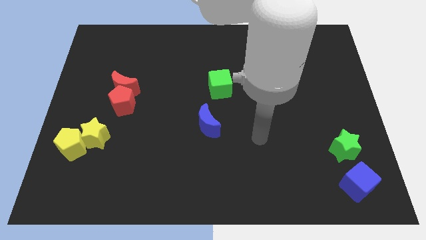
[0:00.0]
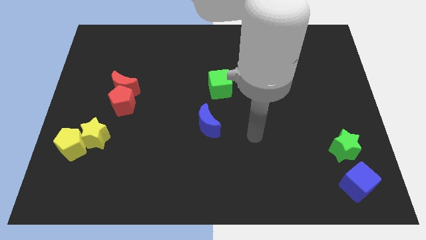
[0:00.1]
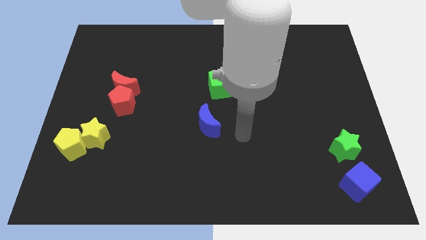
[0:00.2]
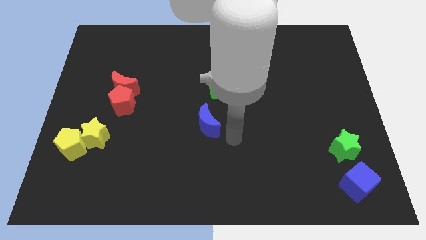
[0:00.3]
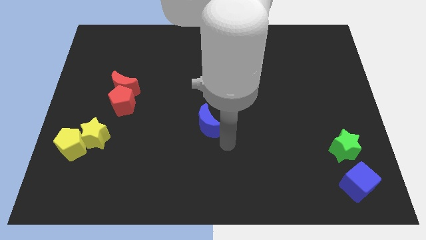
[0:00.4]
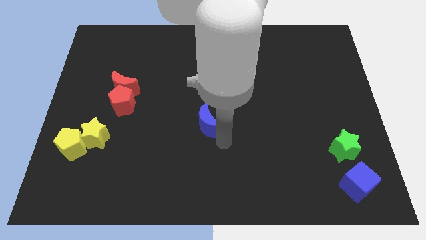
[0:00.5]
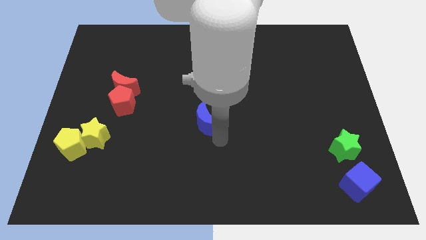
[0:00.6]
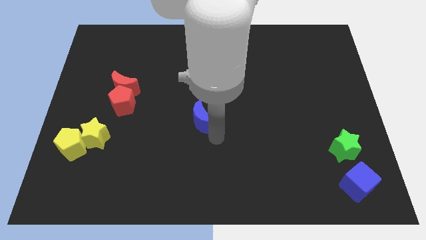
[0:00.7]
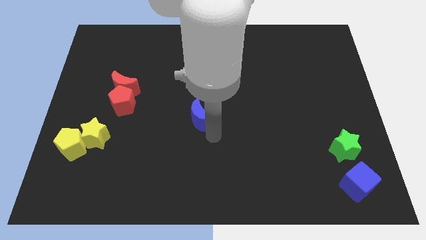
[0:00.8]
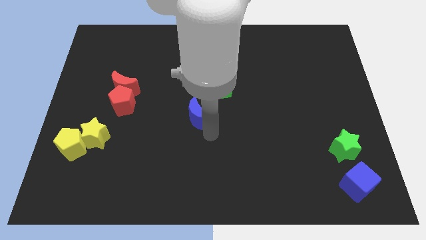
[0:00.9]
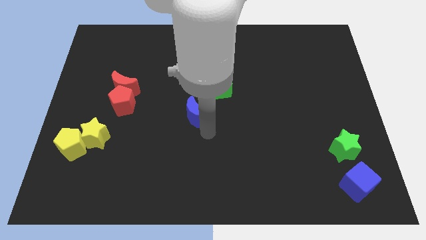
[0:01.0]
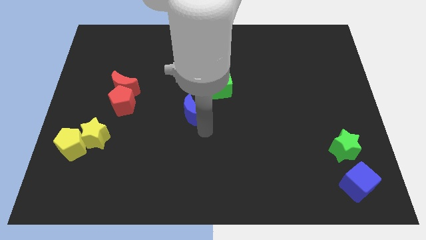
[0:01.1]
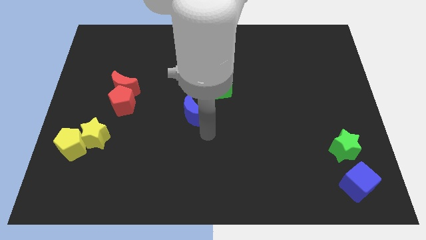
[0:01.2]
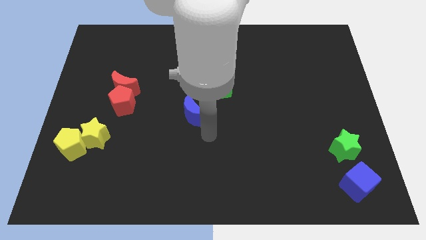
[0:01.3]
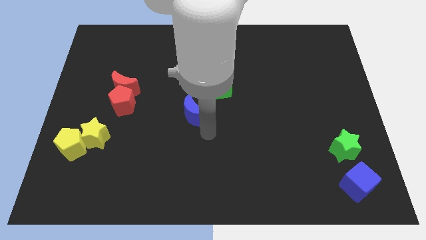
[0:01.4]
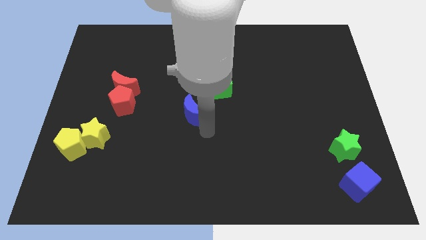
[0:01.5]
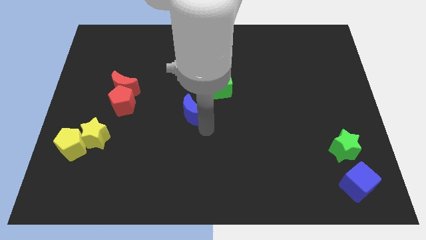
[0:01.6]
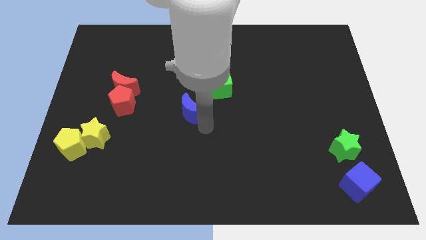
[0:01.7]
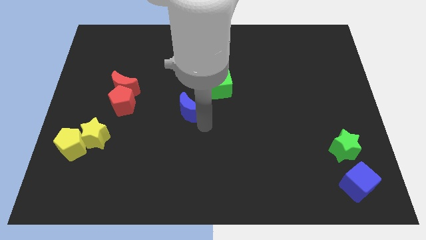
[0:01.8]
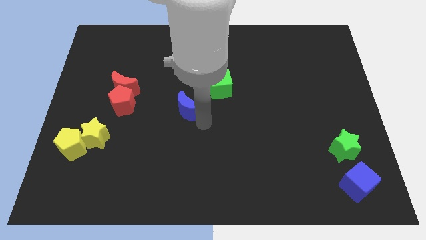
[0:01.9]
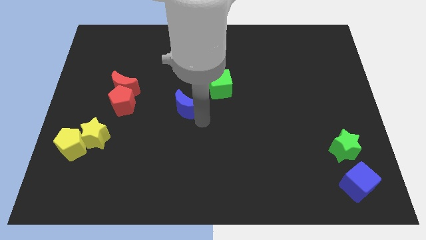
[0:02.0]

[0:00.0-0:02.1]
slightly move the blue moon diagonally upwards and to the left

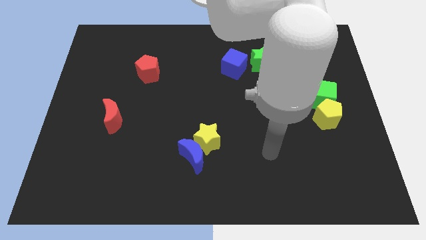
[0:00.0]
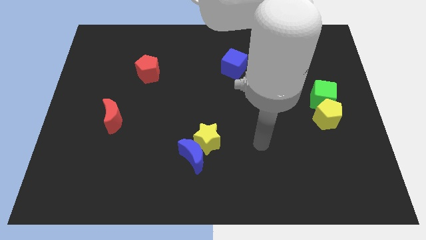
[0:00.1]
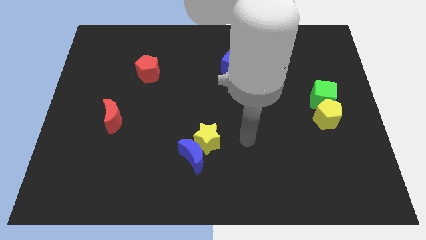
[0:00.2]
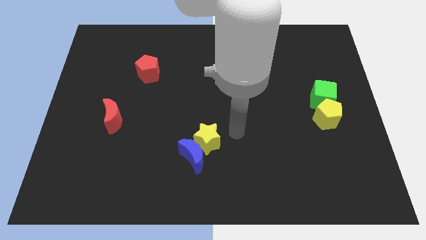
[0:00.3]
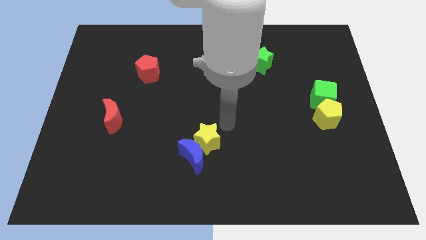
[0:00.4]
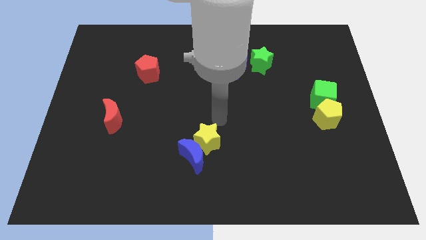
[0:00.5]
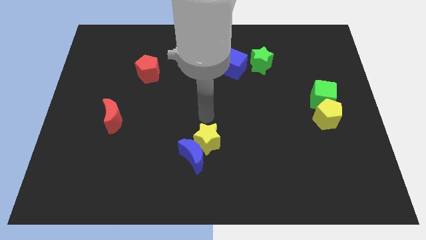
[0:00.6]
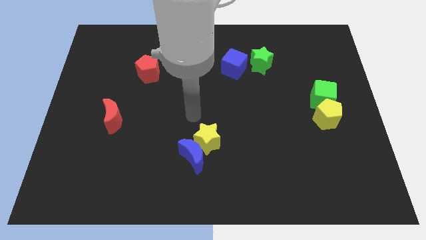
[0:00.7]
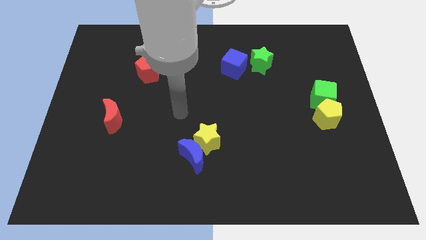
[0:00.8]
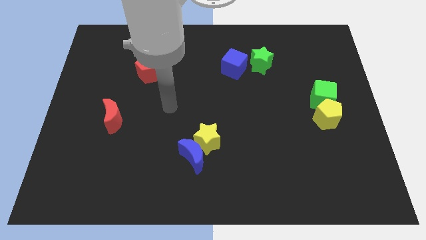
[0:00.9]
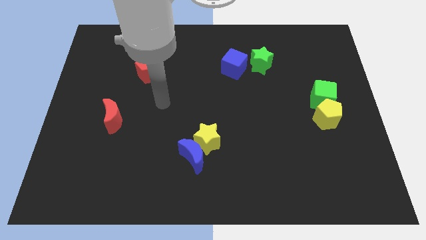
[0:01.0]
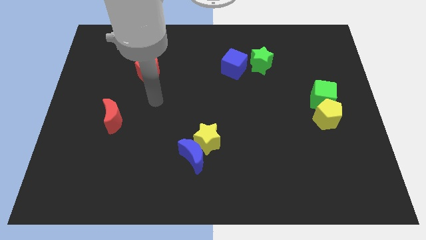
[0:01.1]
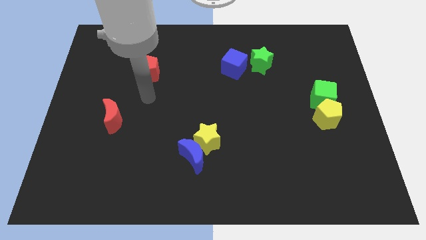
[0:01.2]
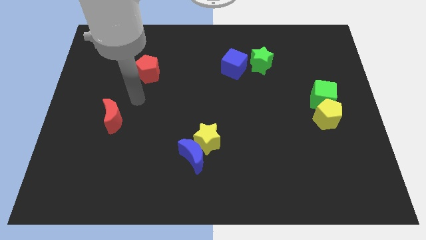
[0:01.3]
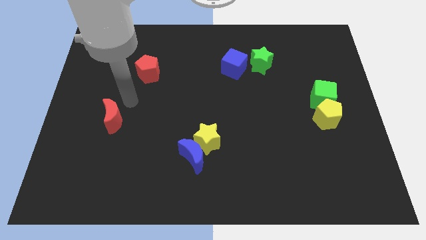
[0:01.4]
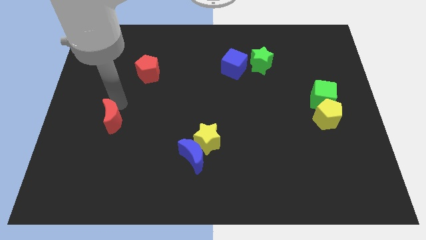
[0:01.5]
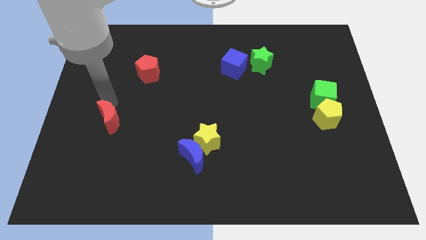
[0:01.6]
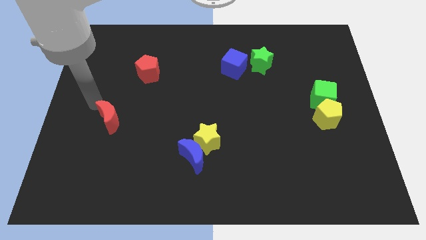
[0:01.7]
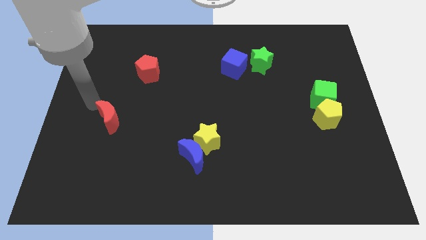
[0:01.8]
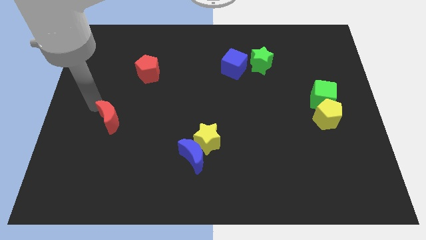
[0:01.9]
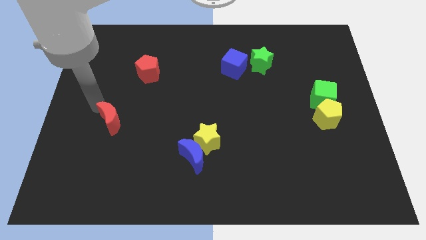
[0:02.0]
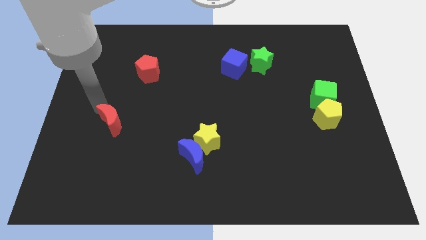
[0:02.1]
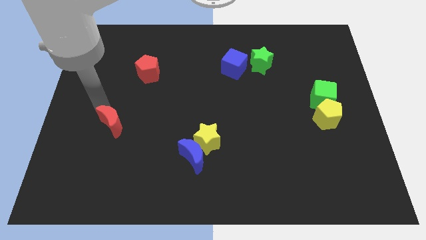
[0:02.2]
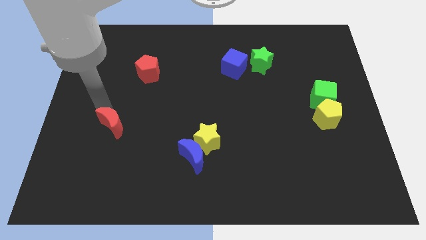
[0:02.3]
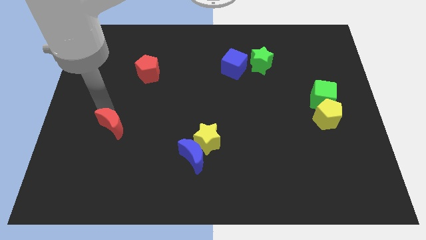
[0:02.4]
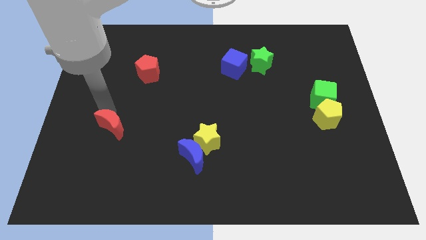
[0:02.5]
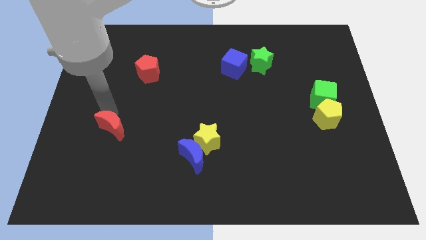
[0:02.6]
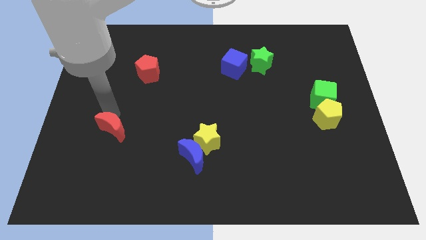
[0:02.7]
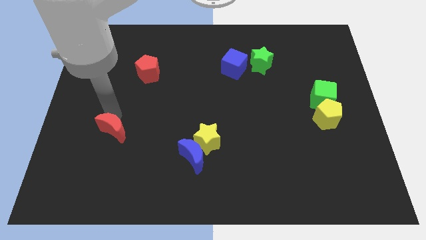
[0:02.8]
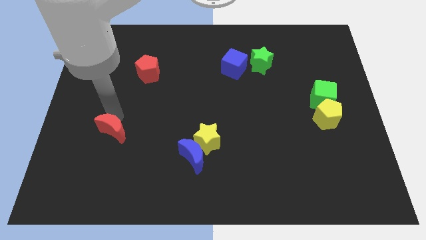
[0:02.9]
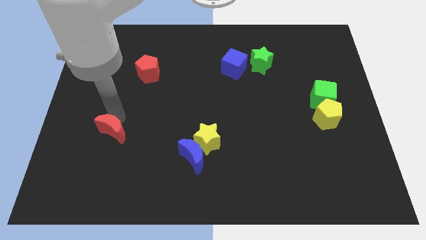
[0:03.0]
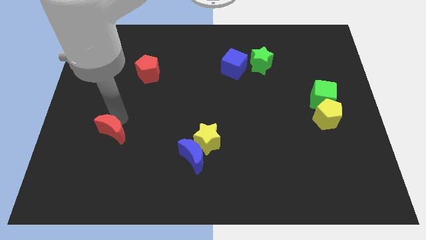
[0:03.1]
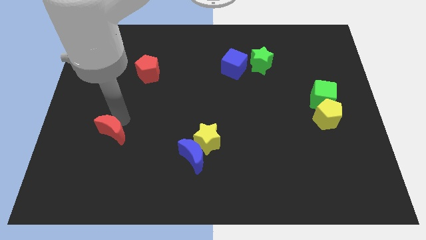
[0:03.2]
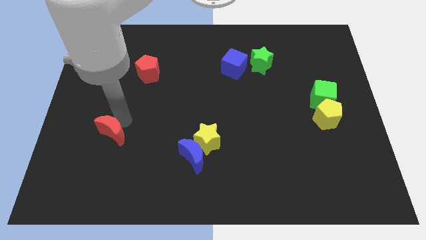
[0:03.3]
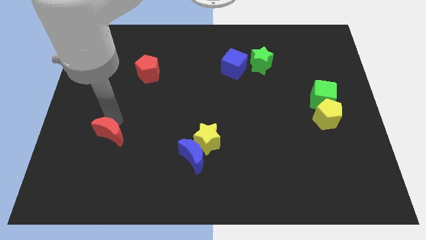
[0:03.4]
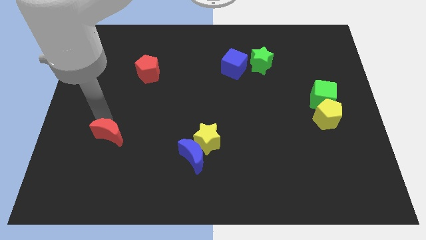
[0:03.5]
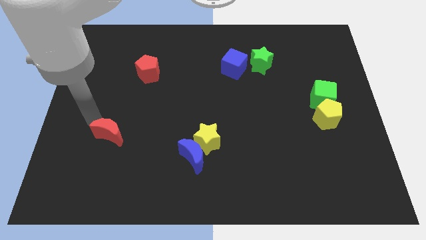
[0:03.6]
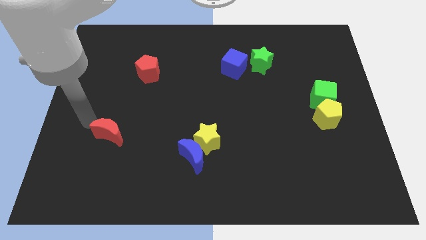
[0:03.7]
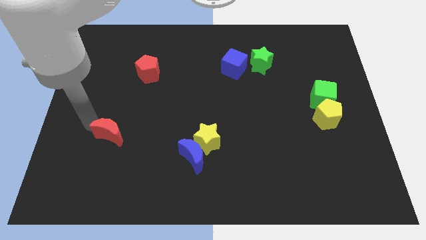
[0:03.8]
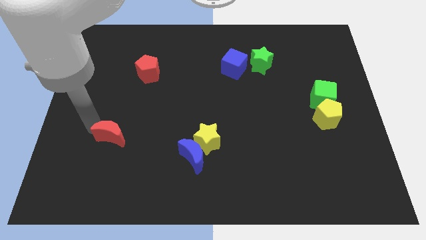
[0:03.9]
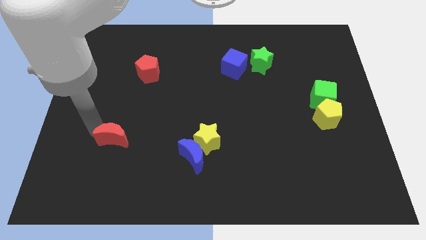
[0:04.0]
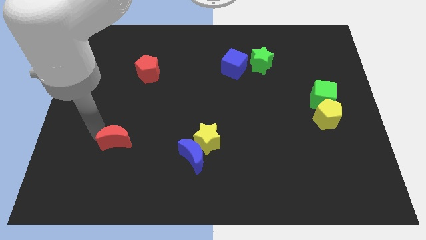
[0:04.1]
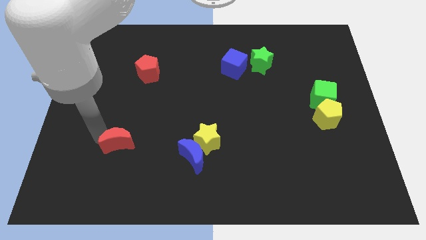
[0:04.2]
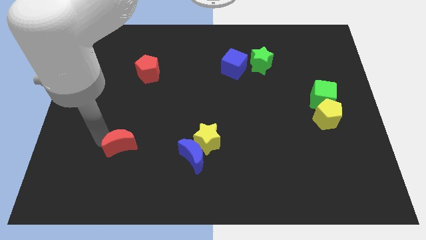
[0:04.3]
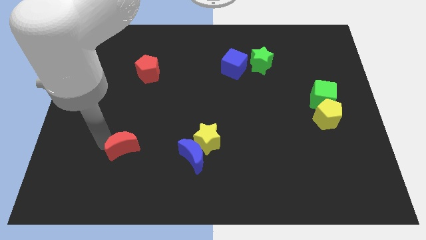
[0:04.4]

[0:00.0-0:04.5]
slide the red moon slightly downwards and then right

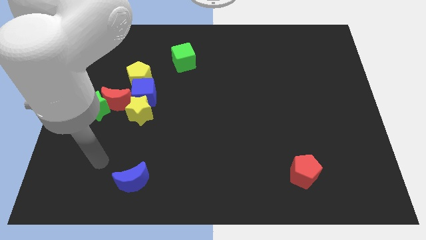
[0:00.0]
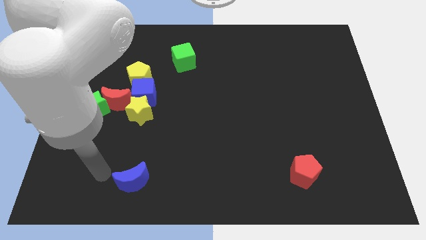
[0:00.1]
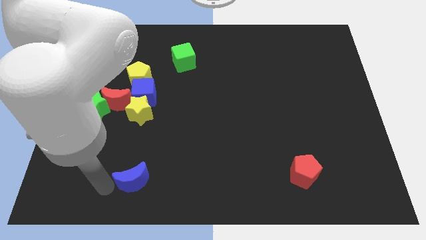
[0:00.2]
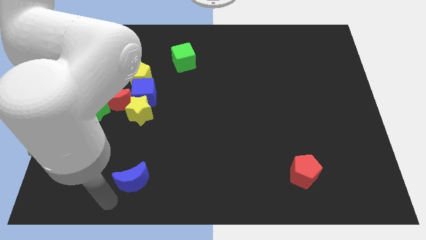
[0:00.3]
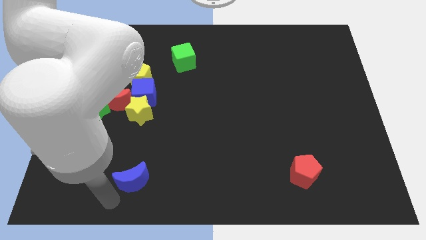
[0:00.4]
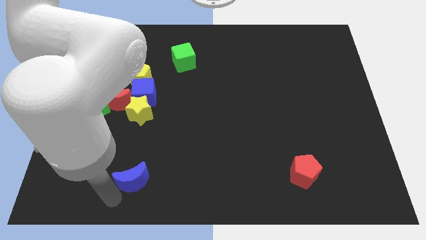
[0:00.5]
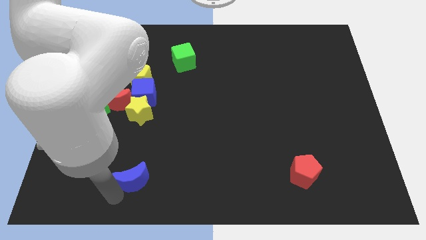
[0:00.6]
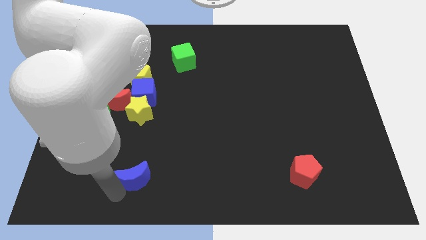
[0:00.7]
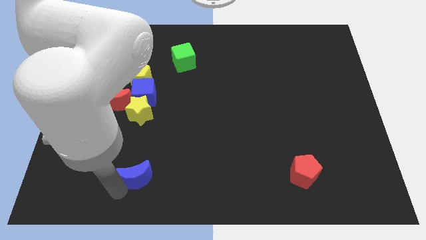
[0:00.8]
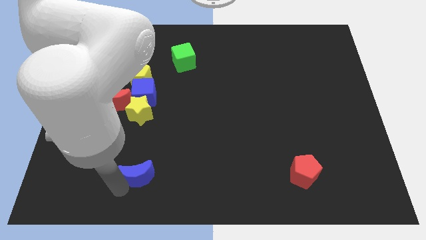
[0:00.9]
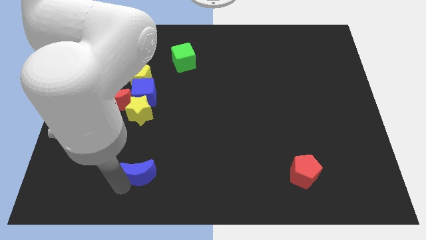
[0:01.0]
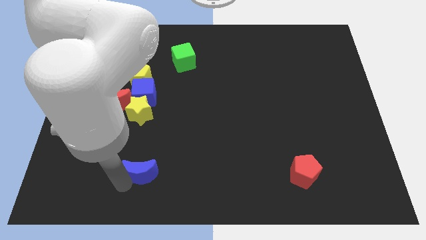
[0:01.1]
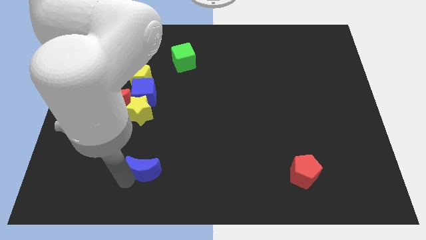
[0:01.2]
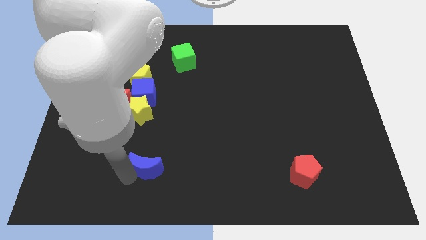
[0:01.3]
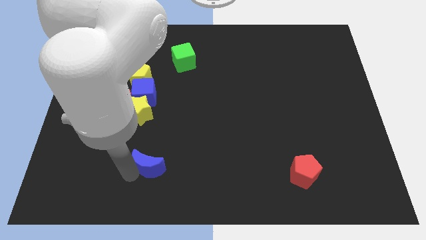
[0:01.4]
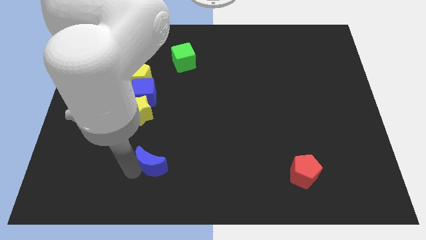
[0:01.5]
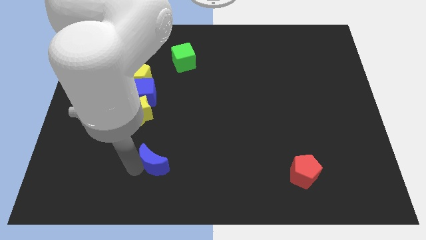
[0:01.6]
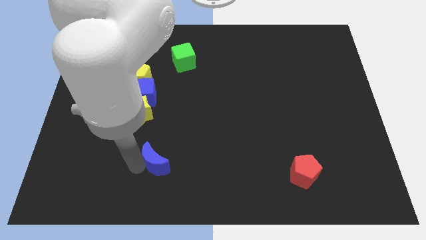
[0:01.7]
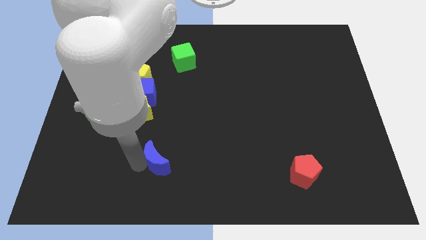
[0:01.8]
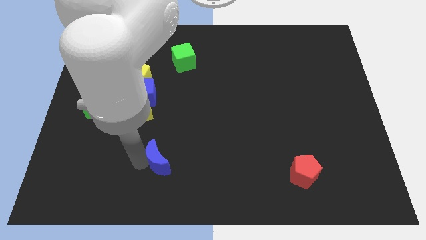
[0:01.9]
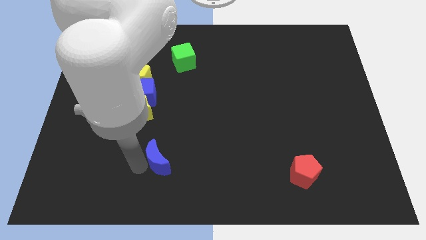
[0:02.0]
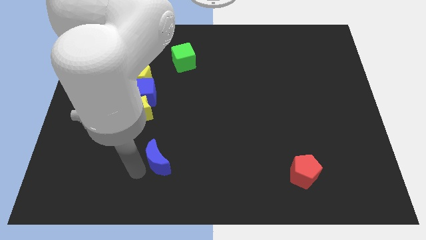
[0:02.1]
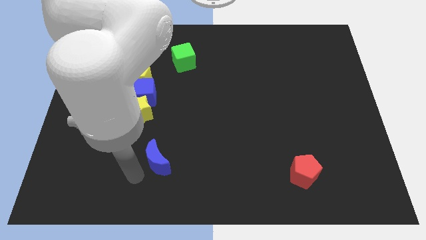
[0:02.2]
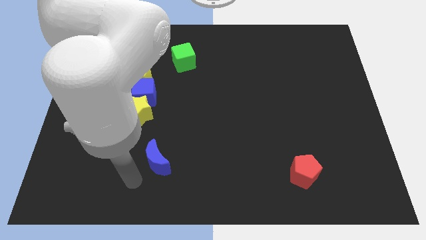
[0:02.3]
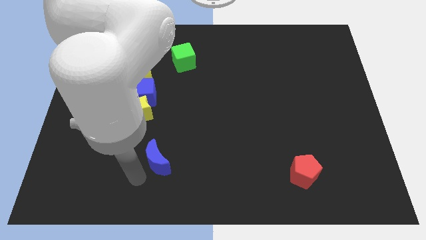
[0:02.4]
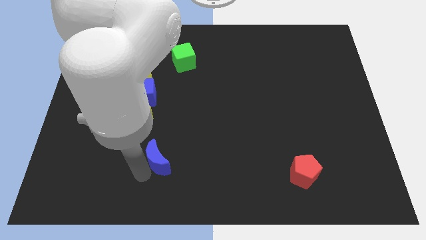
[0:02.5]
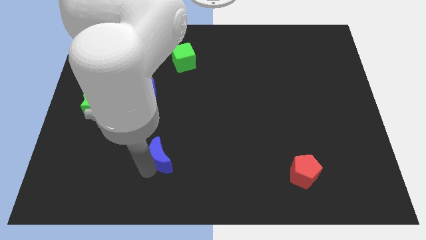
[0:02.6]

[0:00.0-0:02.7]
push the blue moon a little bit upwards and to the right diagonally
